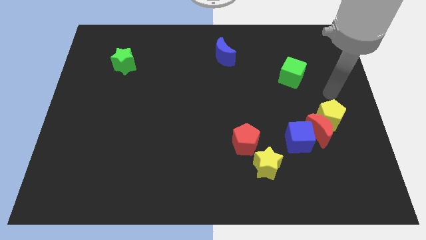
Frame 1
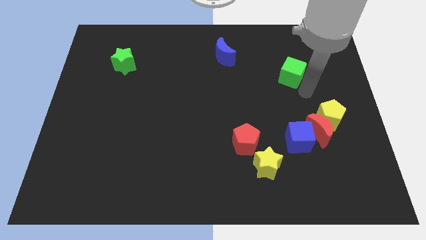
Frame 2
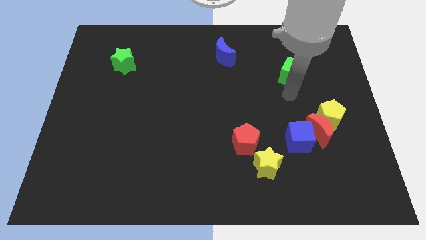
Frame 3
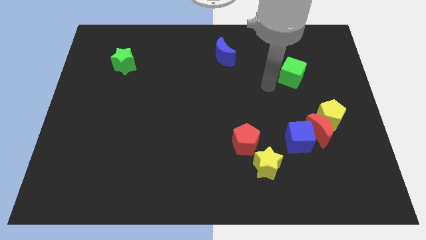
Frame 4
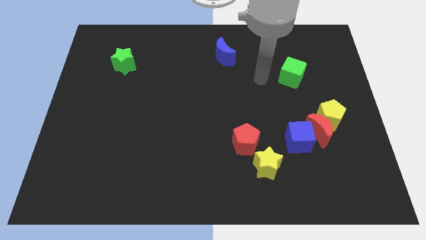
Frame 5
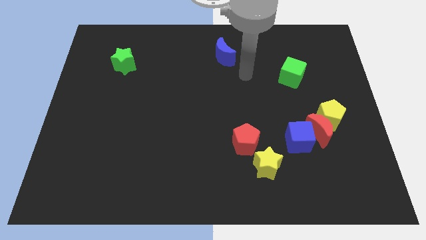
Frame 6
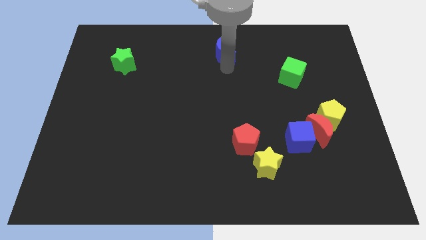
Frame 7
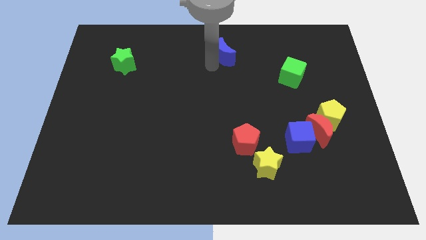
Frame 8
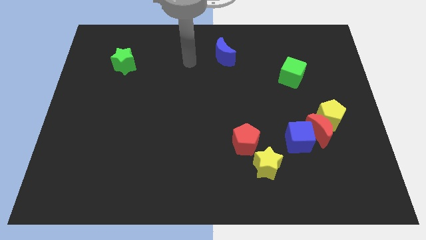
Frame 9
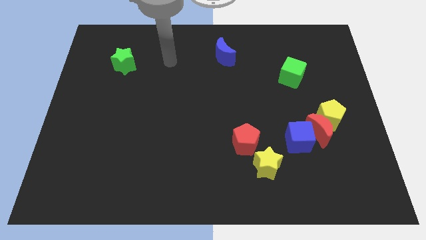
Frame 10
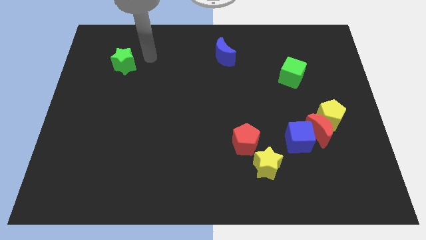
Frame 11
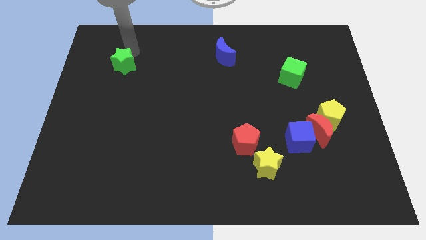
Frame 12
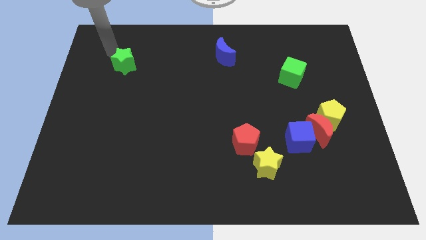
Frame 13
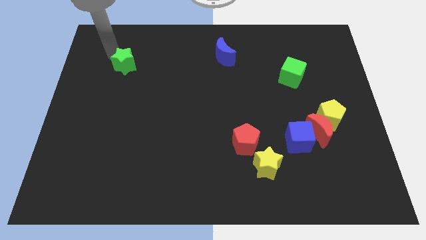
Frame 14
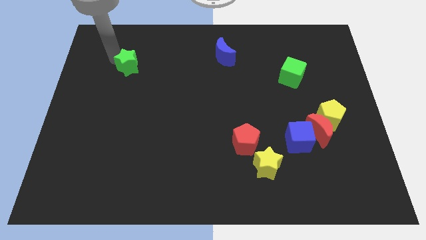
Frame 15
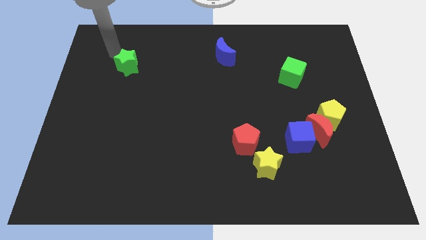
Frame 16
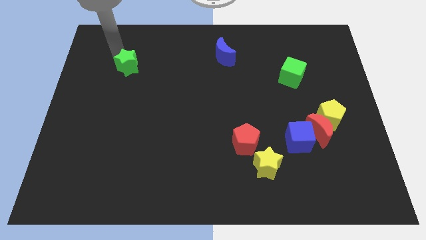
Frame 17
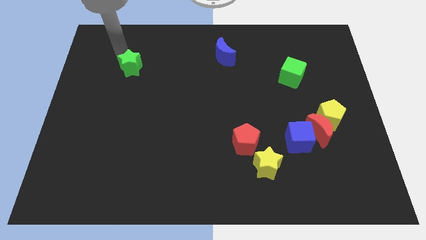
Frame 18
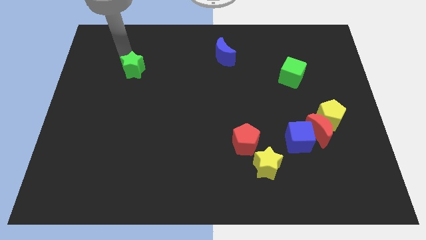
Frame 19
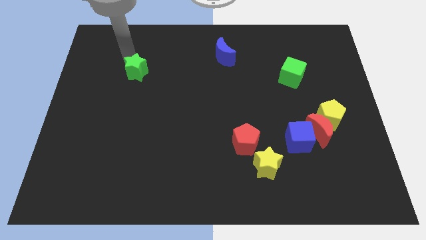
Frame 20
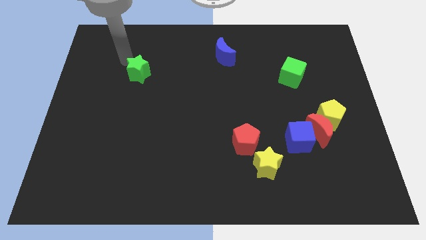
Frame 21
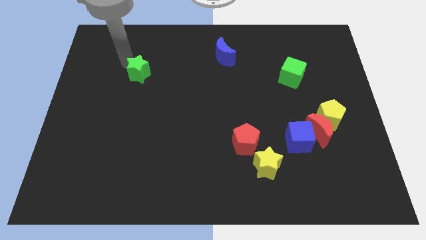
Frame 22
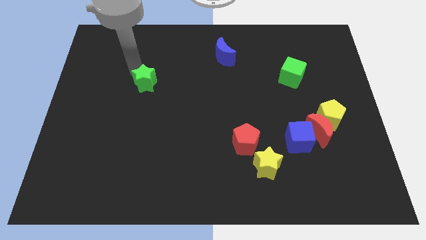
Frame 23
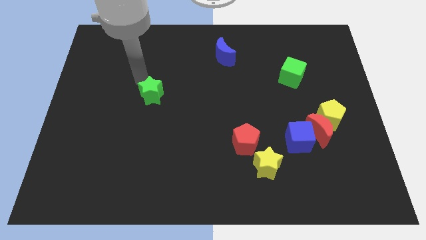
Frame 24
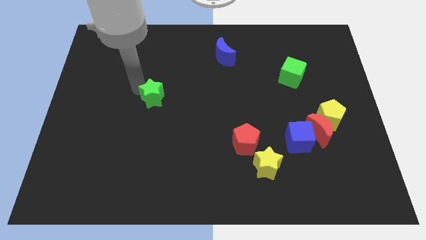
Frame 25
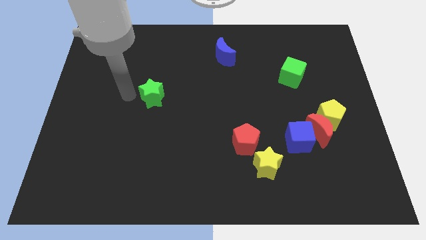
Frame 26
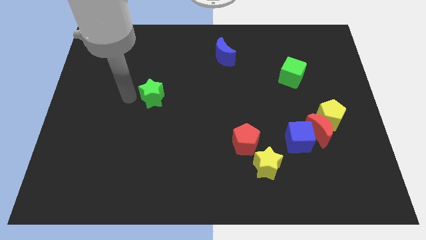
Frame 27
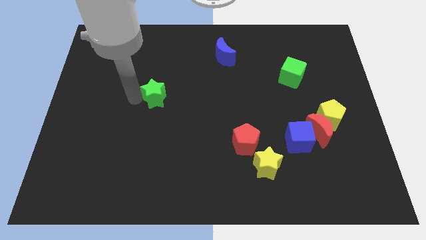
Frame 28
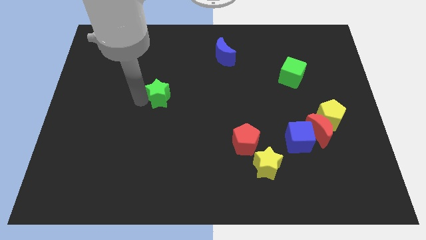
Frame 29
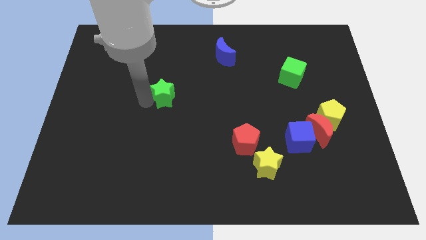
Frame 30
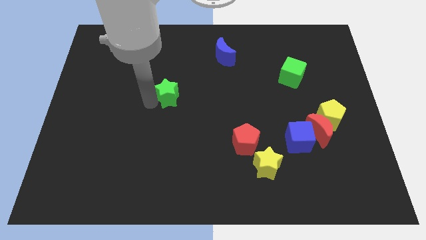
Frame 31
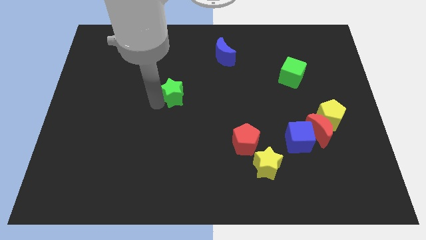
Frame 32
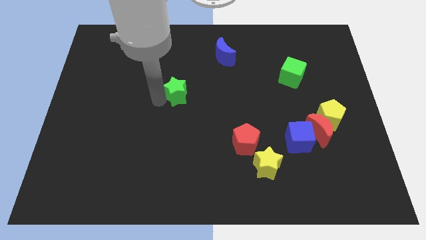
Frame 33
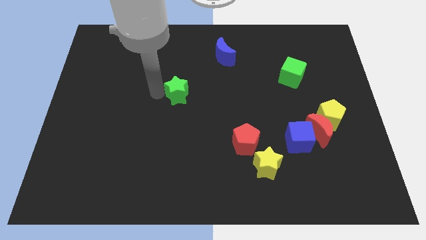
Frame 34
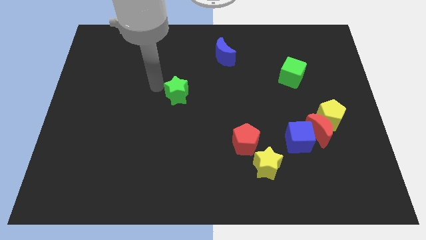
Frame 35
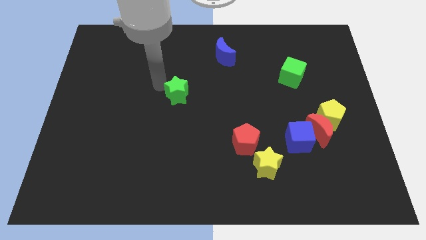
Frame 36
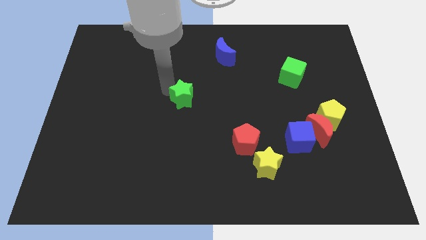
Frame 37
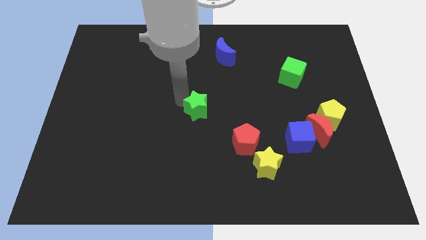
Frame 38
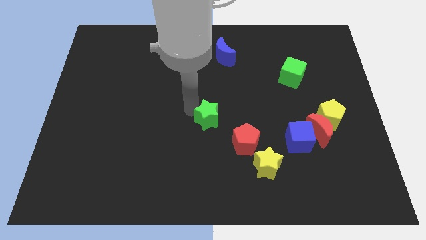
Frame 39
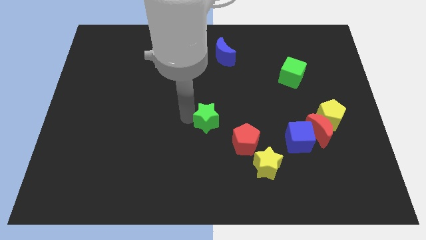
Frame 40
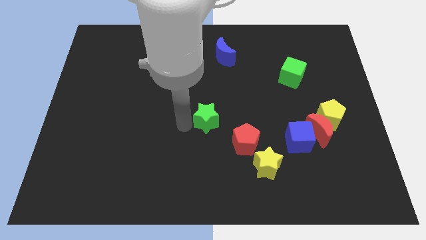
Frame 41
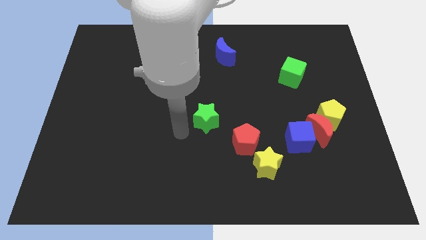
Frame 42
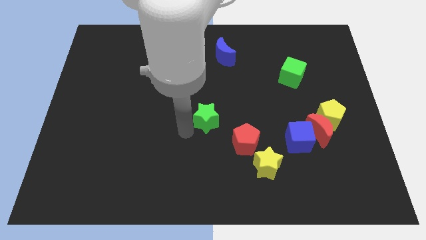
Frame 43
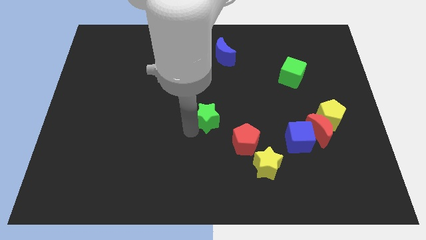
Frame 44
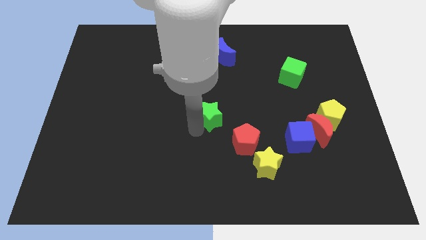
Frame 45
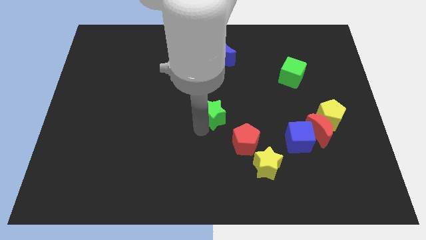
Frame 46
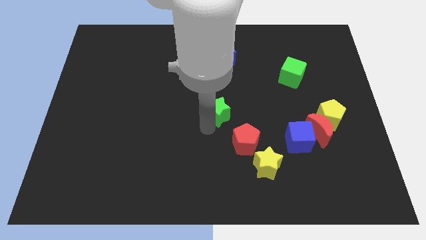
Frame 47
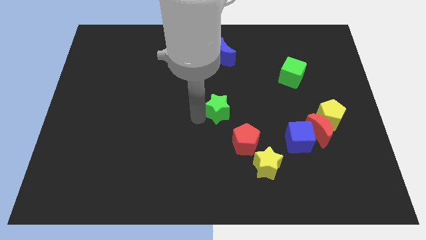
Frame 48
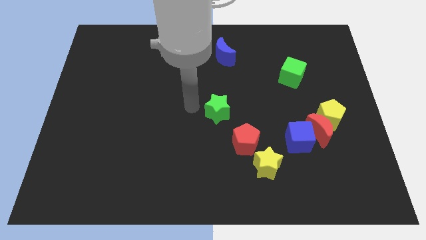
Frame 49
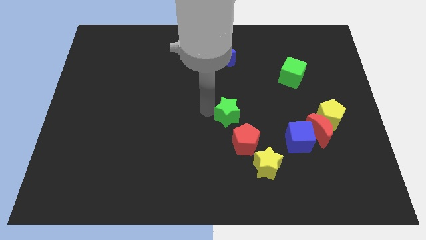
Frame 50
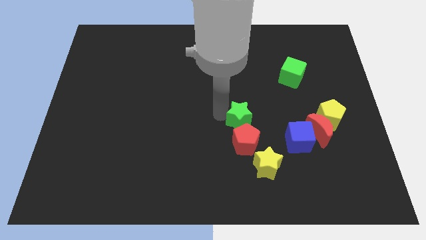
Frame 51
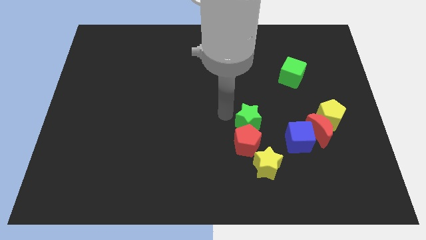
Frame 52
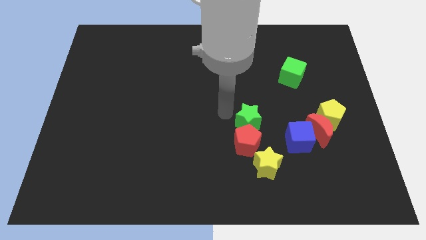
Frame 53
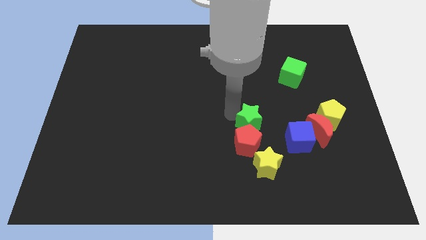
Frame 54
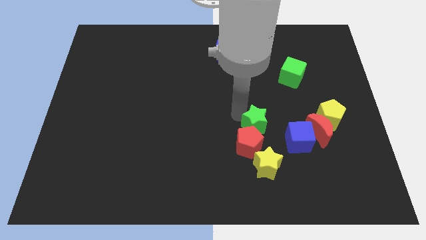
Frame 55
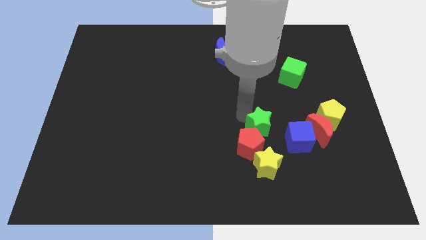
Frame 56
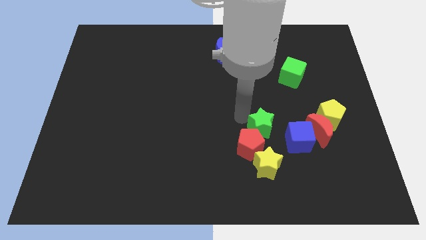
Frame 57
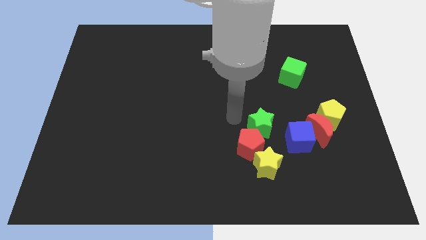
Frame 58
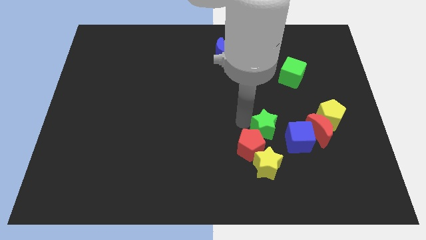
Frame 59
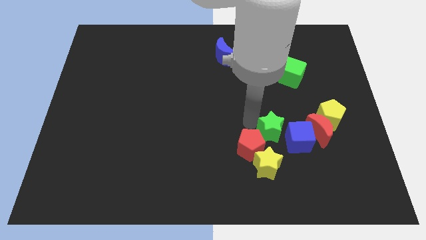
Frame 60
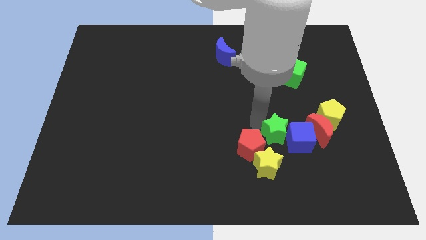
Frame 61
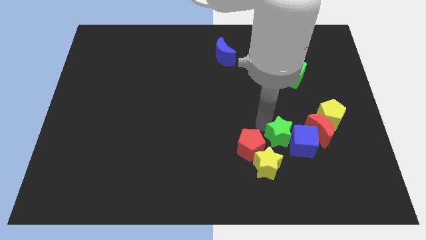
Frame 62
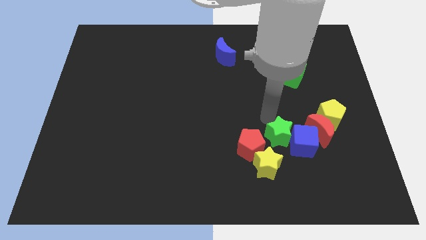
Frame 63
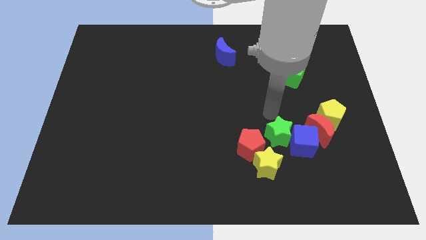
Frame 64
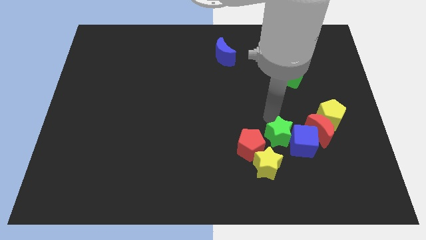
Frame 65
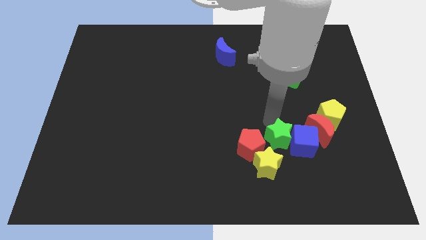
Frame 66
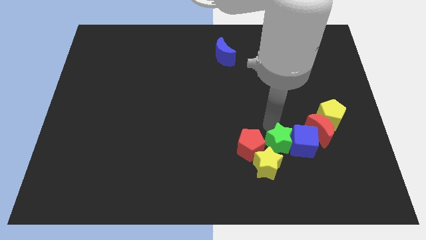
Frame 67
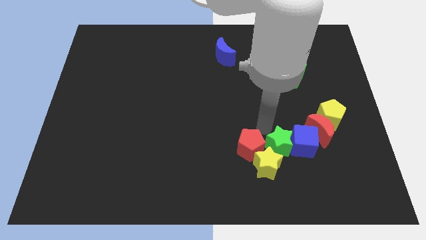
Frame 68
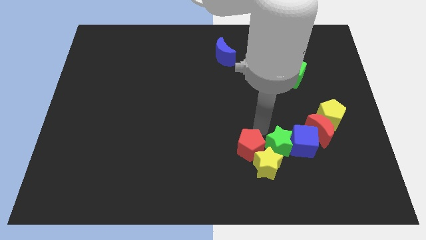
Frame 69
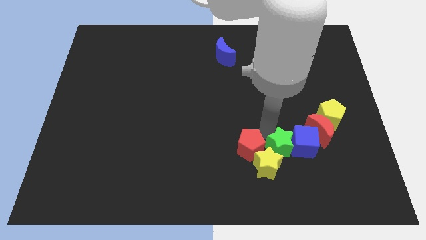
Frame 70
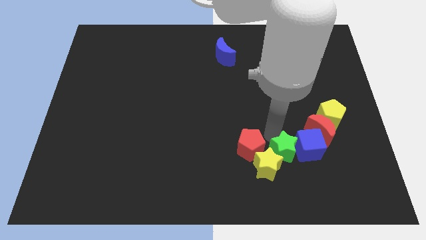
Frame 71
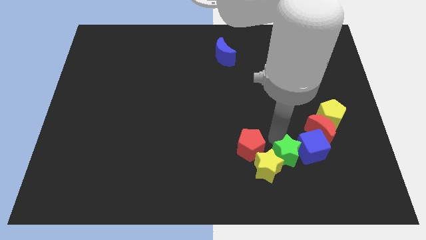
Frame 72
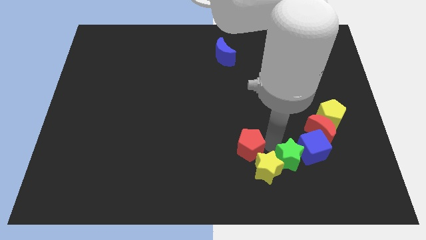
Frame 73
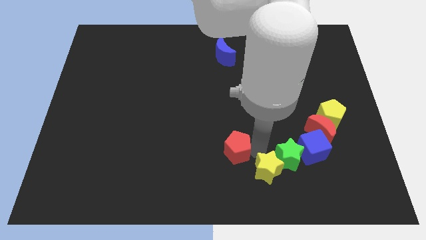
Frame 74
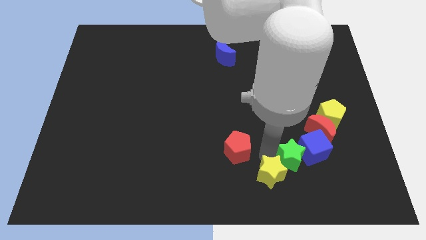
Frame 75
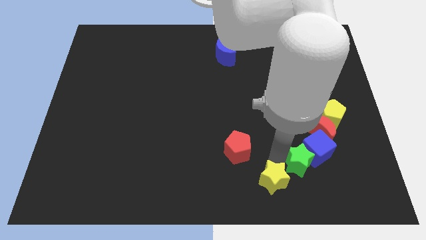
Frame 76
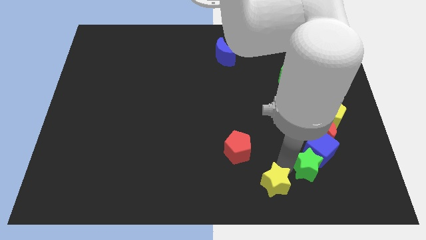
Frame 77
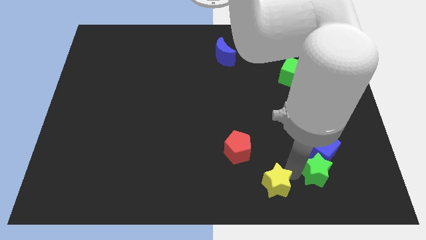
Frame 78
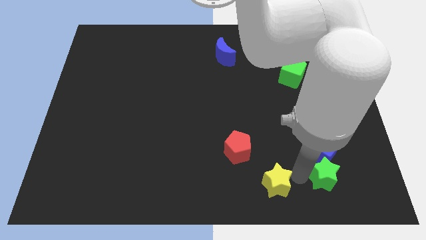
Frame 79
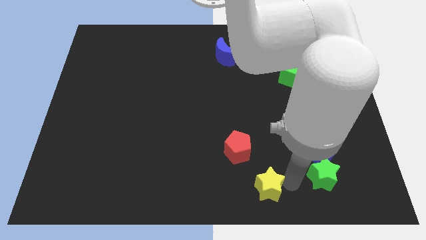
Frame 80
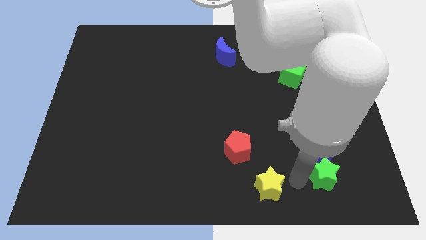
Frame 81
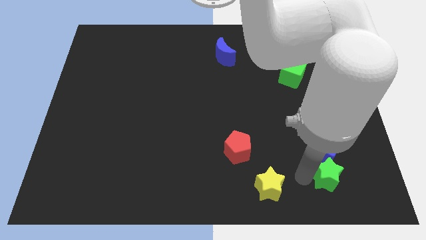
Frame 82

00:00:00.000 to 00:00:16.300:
push the green star diagonally down and to the right of the blue cube
